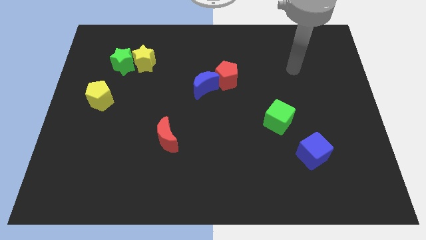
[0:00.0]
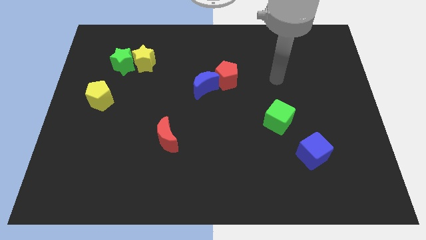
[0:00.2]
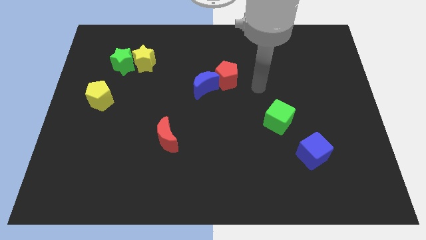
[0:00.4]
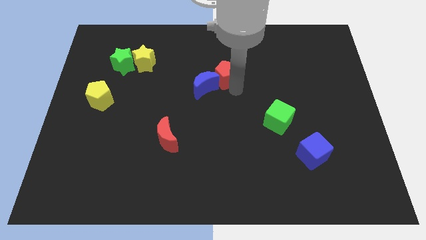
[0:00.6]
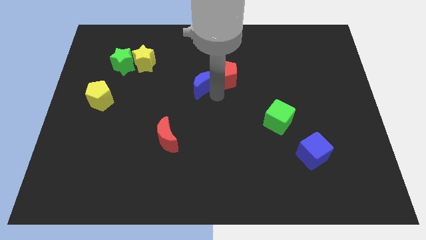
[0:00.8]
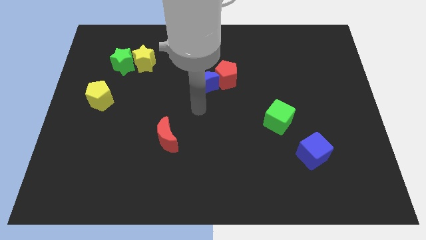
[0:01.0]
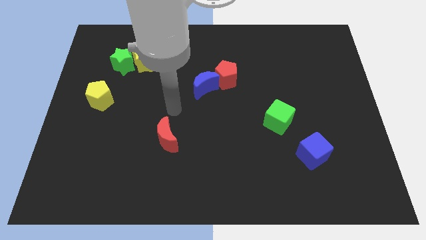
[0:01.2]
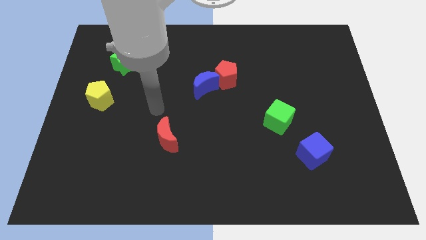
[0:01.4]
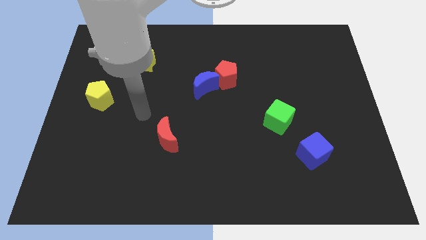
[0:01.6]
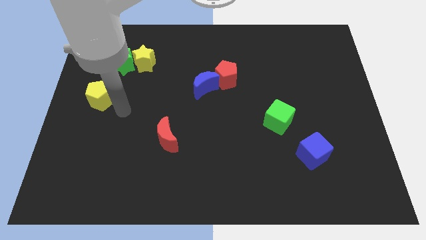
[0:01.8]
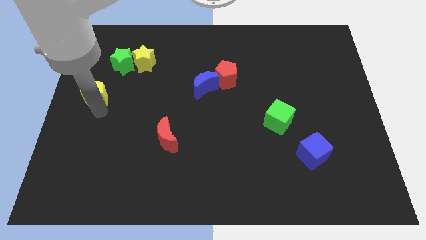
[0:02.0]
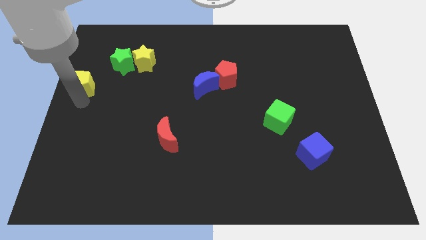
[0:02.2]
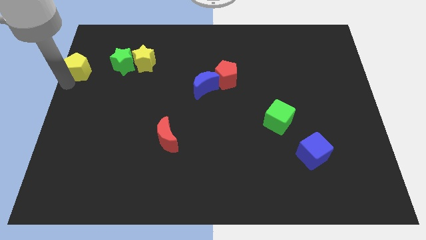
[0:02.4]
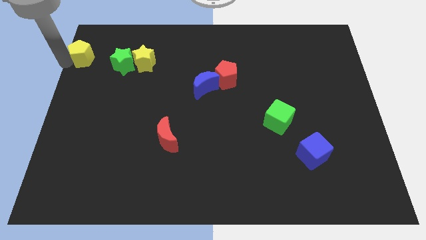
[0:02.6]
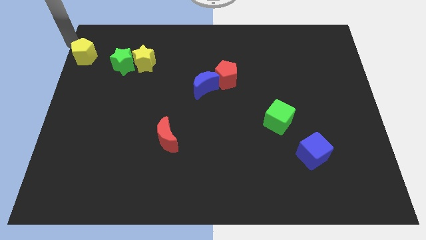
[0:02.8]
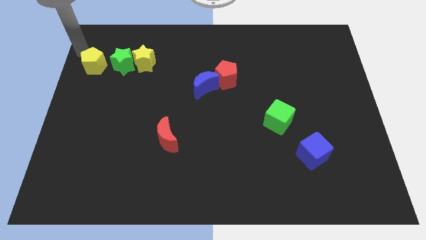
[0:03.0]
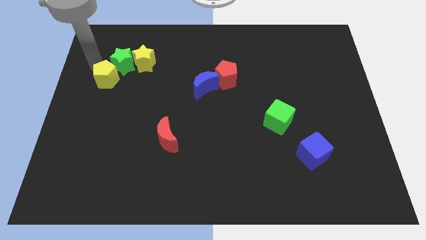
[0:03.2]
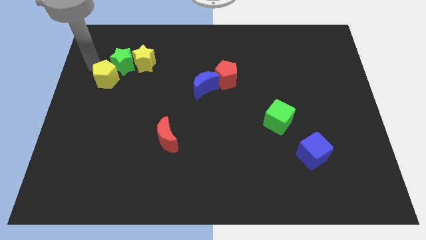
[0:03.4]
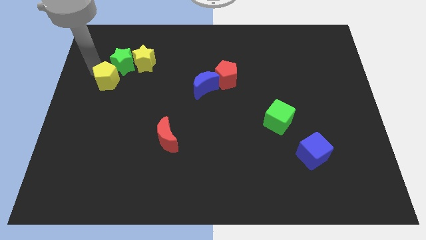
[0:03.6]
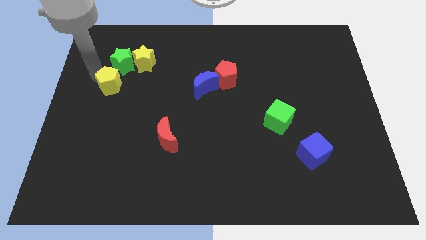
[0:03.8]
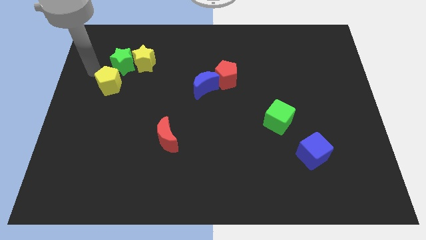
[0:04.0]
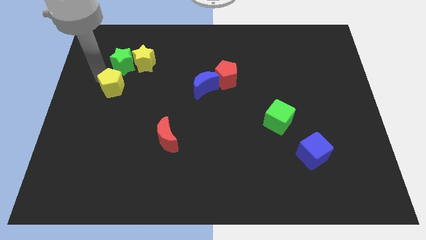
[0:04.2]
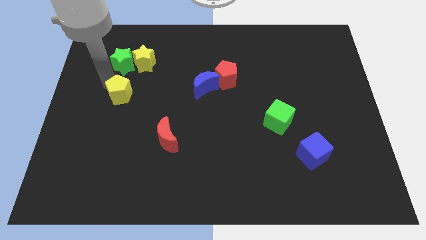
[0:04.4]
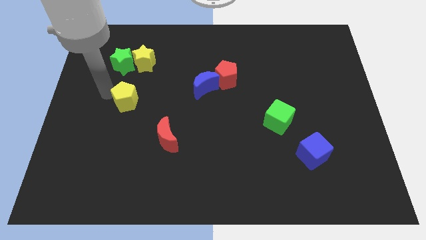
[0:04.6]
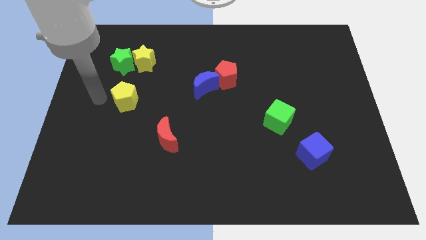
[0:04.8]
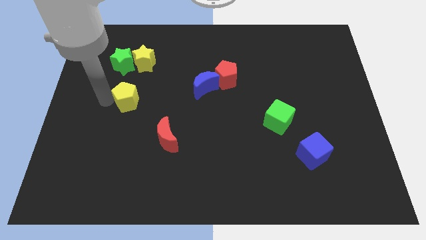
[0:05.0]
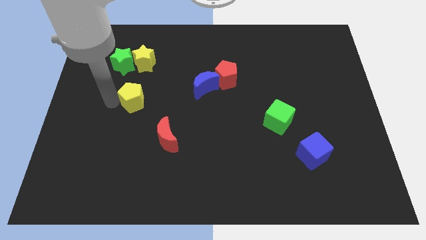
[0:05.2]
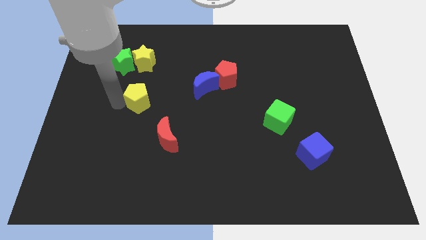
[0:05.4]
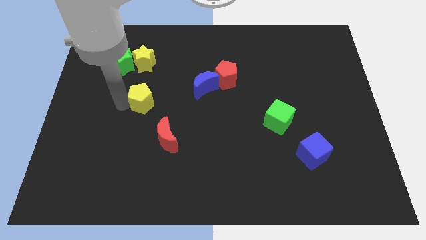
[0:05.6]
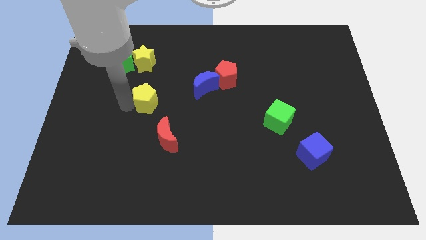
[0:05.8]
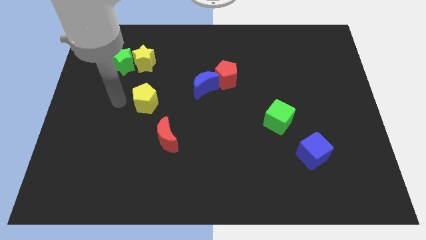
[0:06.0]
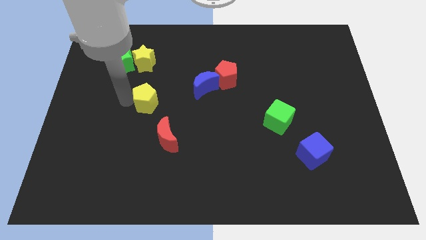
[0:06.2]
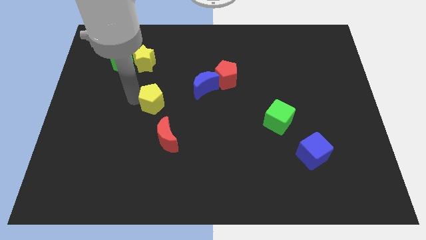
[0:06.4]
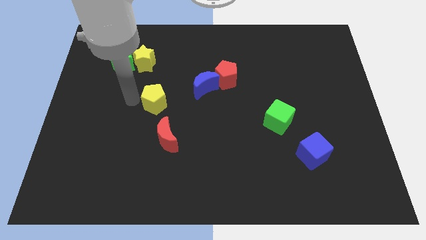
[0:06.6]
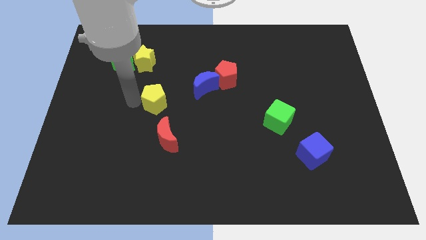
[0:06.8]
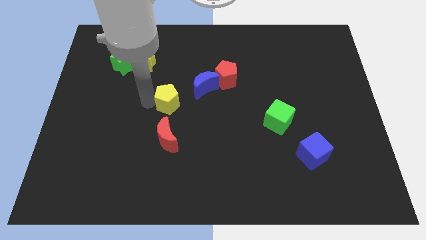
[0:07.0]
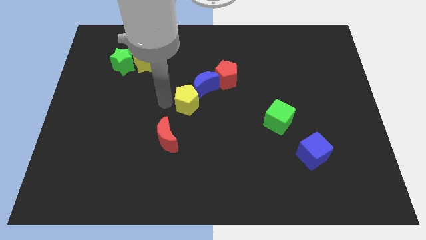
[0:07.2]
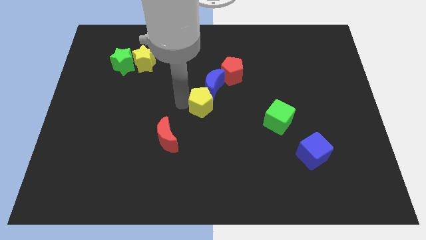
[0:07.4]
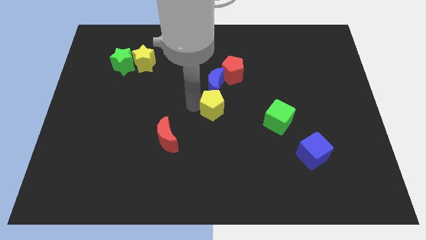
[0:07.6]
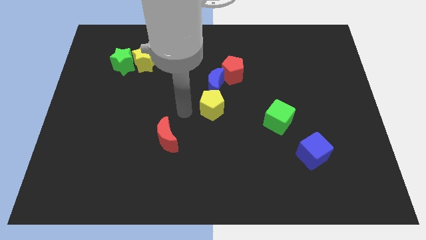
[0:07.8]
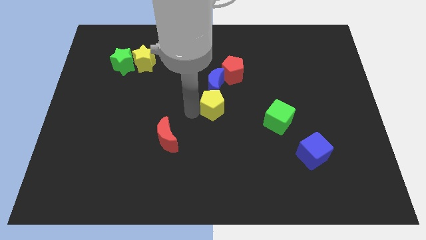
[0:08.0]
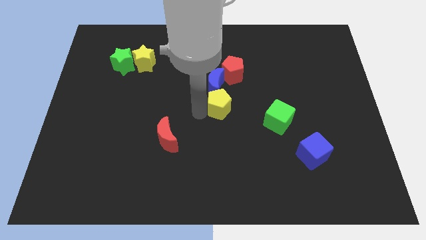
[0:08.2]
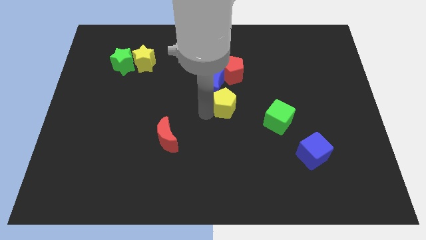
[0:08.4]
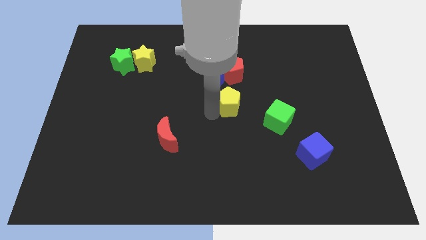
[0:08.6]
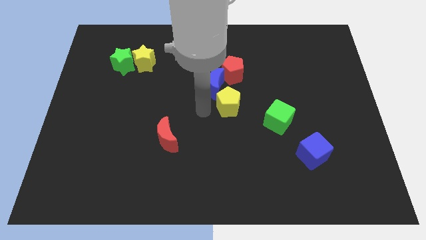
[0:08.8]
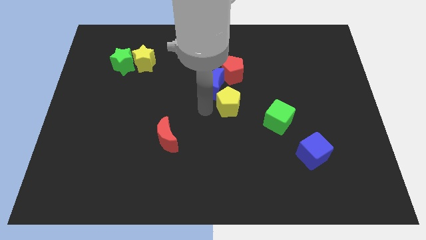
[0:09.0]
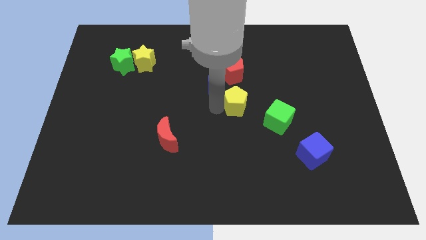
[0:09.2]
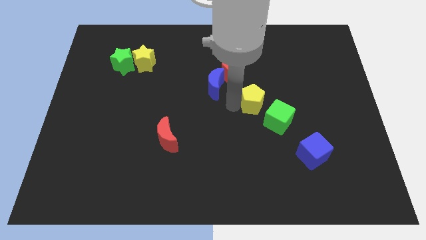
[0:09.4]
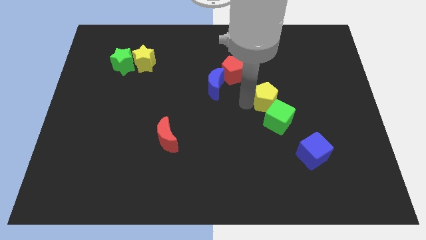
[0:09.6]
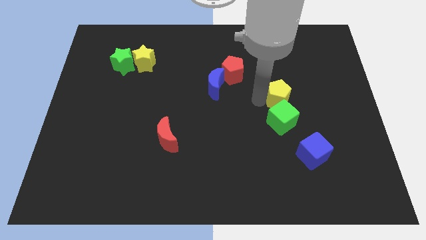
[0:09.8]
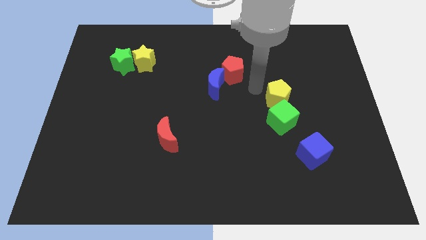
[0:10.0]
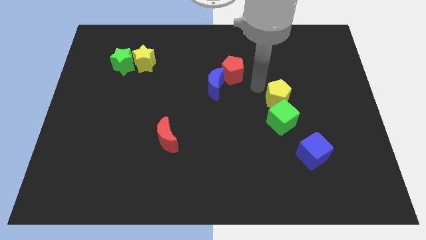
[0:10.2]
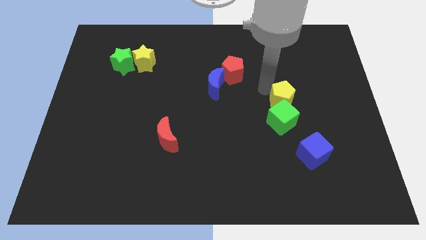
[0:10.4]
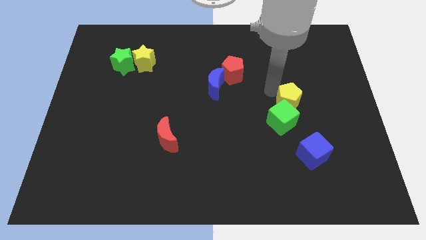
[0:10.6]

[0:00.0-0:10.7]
move the yellow pentagon to the top of the blue cube

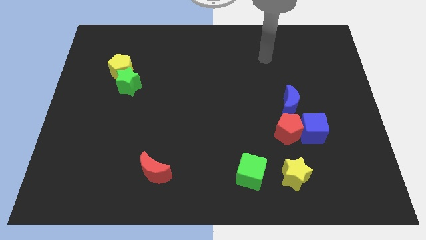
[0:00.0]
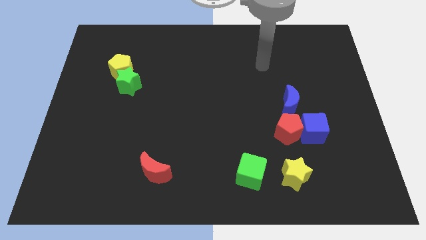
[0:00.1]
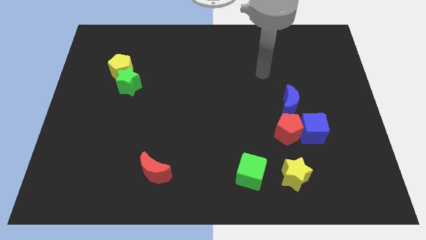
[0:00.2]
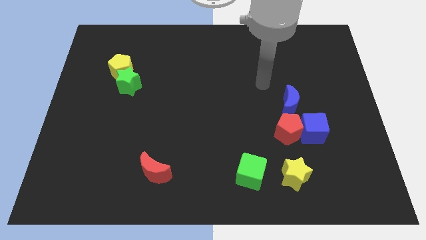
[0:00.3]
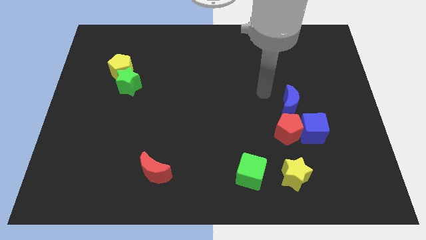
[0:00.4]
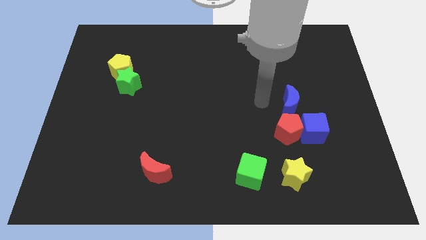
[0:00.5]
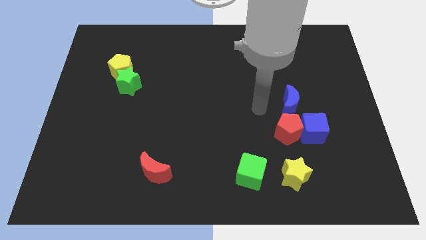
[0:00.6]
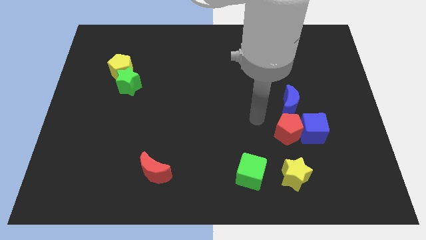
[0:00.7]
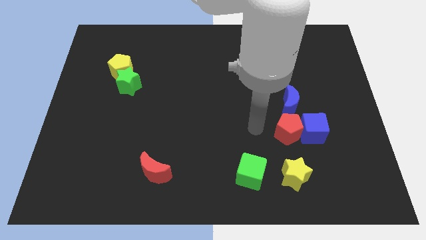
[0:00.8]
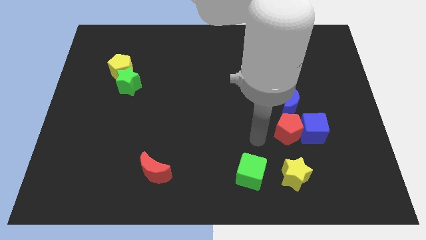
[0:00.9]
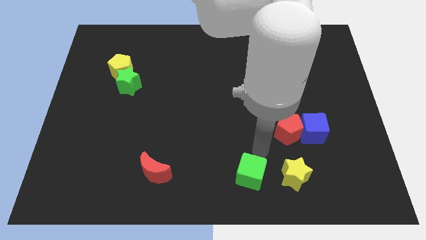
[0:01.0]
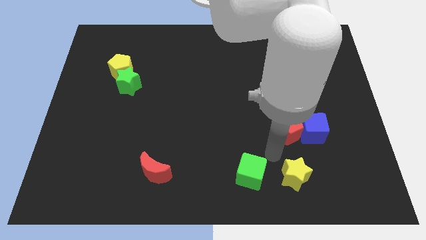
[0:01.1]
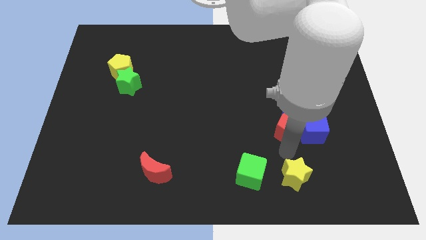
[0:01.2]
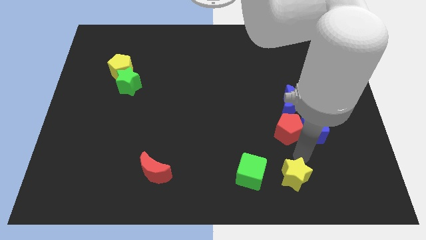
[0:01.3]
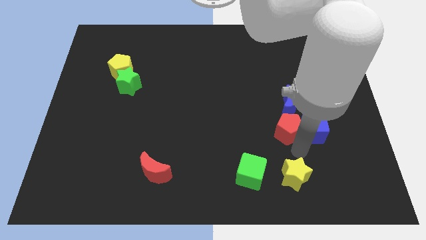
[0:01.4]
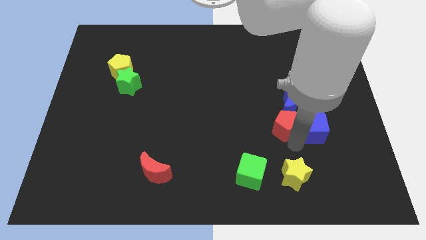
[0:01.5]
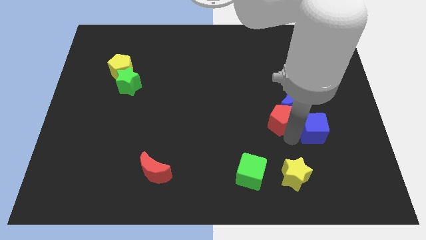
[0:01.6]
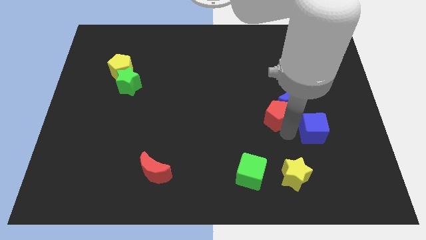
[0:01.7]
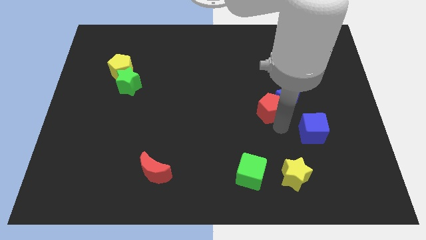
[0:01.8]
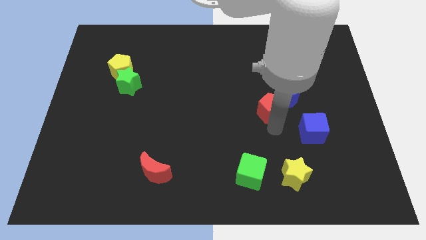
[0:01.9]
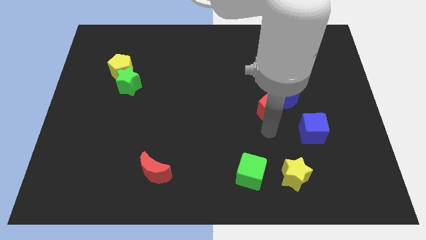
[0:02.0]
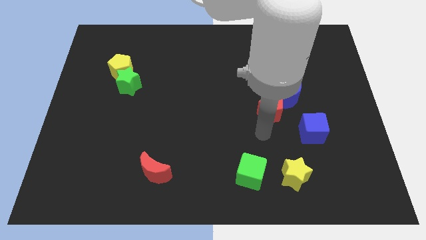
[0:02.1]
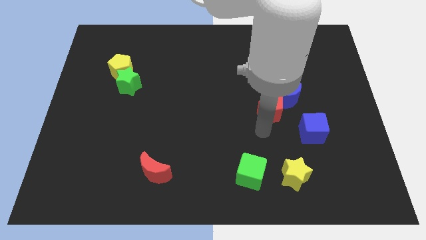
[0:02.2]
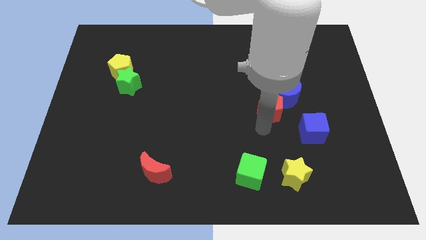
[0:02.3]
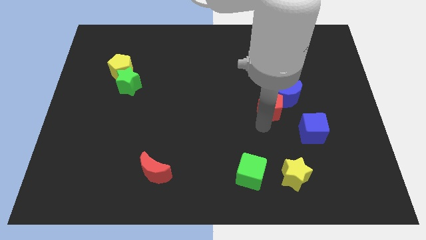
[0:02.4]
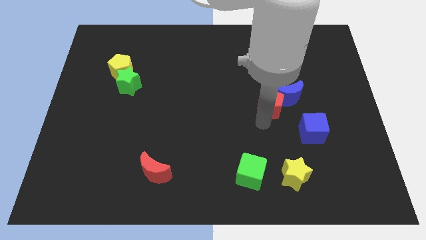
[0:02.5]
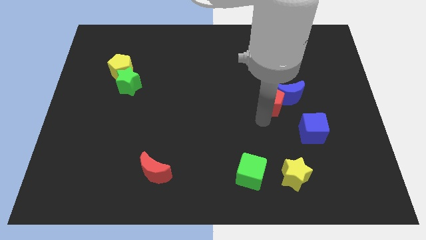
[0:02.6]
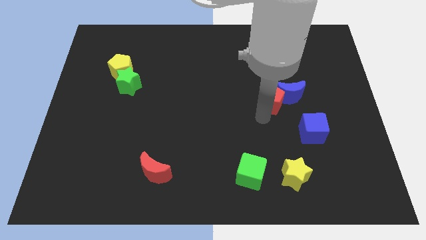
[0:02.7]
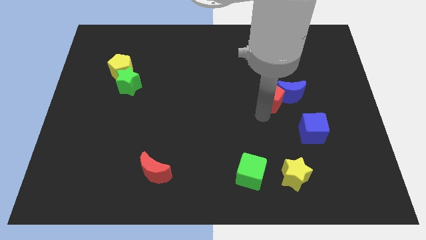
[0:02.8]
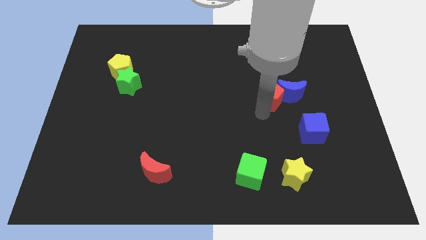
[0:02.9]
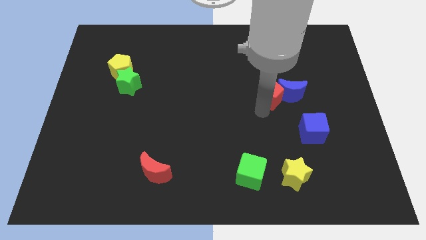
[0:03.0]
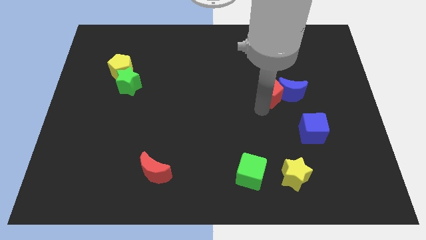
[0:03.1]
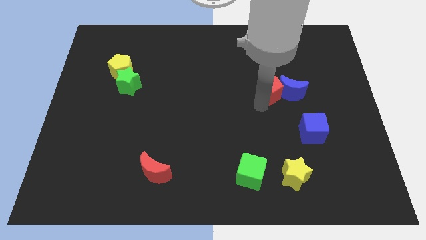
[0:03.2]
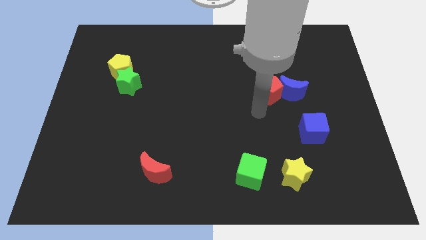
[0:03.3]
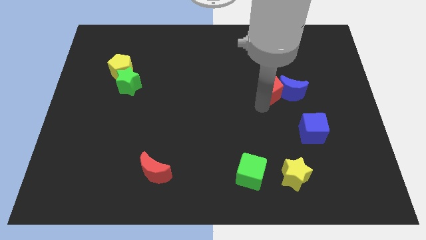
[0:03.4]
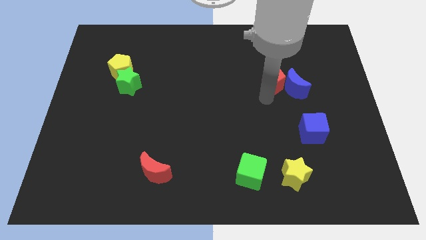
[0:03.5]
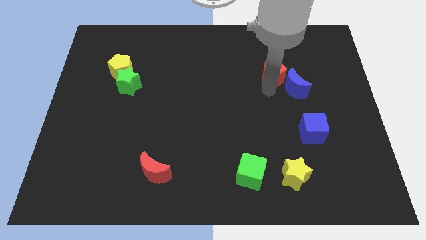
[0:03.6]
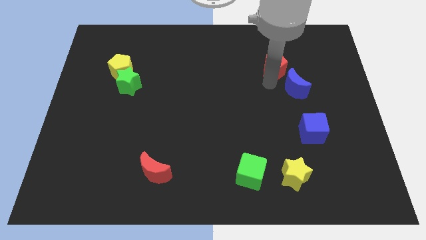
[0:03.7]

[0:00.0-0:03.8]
push the red pentagon above the blue moon
